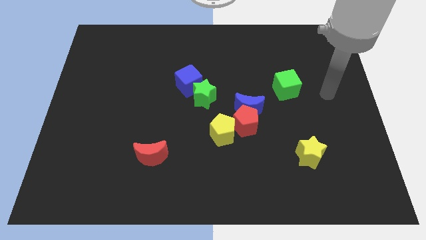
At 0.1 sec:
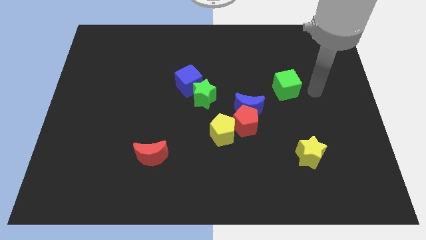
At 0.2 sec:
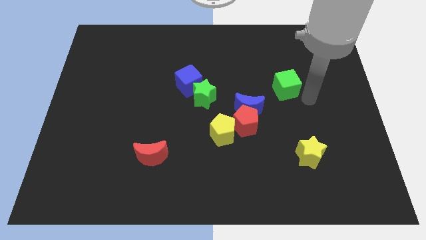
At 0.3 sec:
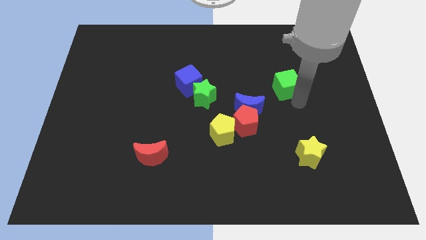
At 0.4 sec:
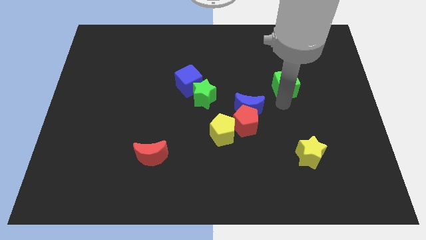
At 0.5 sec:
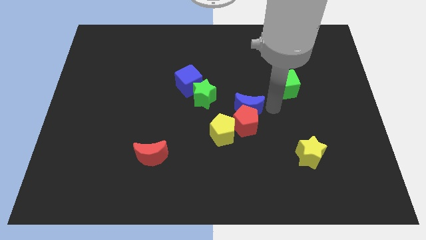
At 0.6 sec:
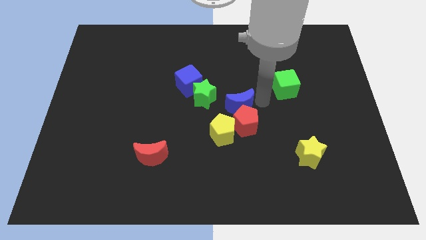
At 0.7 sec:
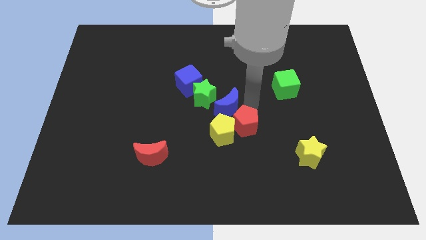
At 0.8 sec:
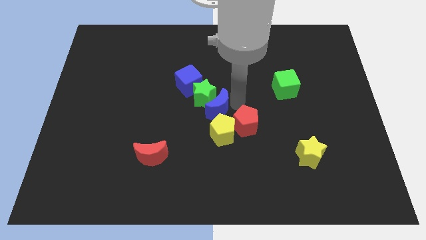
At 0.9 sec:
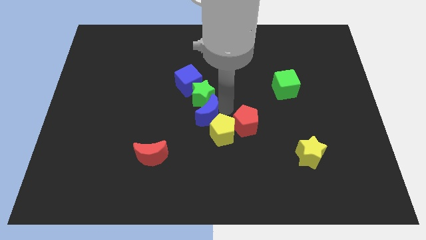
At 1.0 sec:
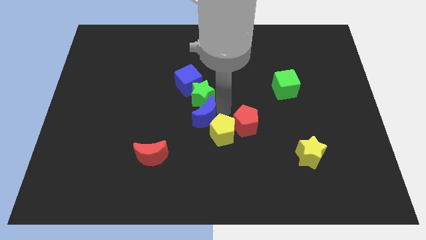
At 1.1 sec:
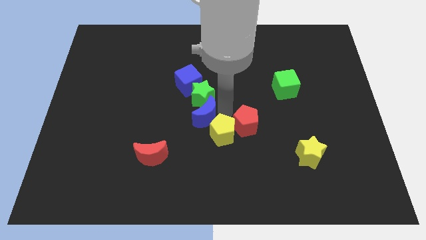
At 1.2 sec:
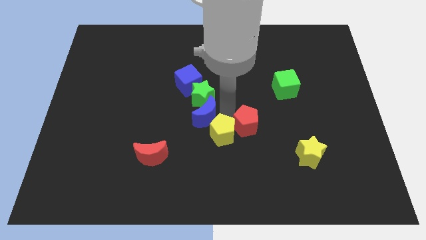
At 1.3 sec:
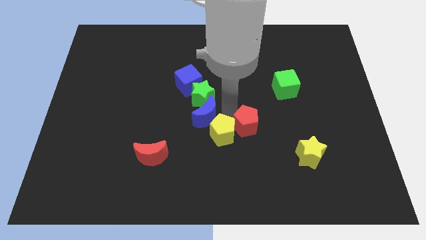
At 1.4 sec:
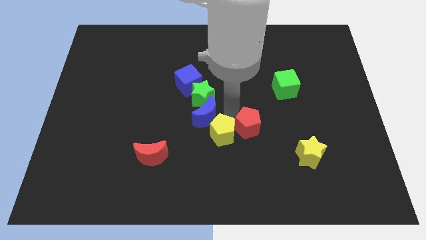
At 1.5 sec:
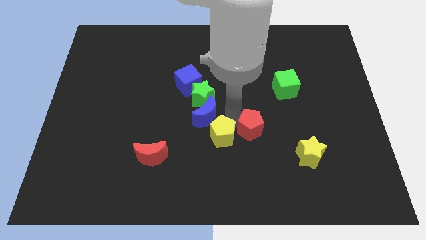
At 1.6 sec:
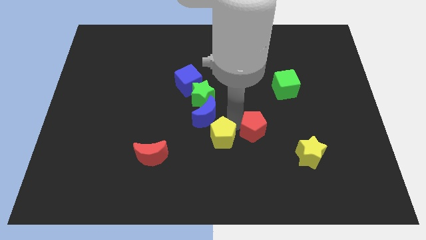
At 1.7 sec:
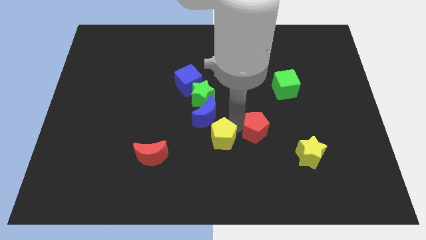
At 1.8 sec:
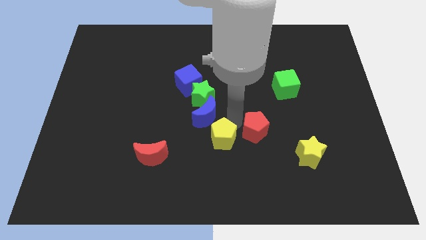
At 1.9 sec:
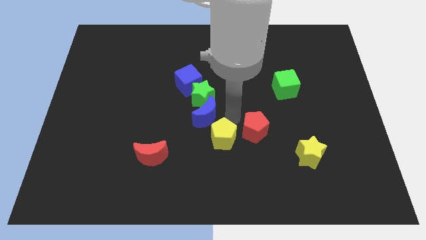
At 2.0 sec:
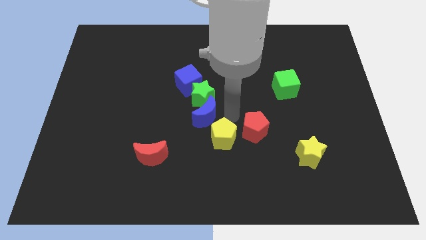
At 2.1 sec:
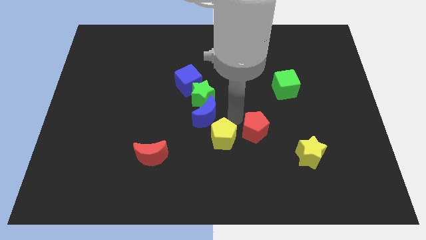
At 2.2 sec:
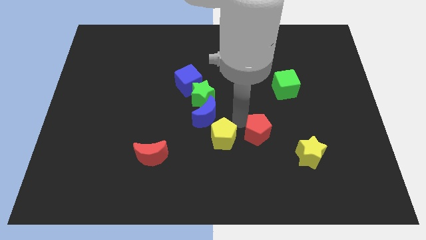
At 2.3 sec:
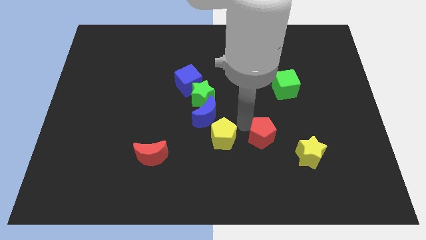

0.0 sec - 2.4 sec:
move the red pentagon away from the blue moon and yellow pentagon

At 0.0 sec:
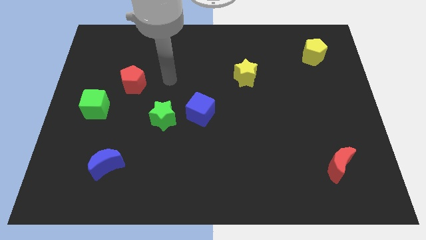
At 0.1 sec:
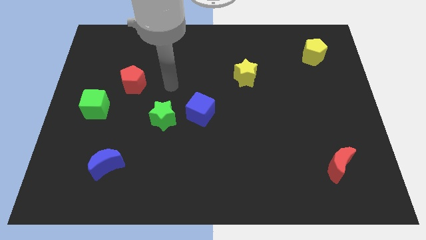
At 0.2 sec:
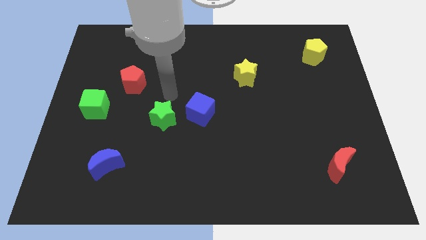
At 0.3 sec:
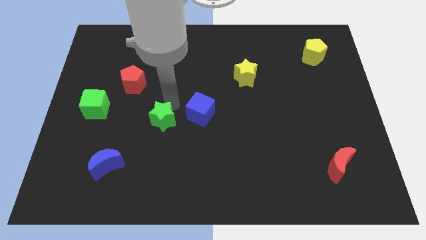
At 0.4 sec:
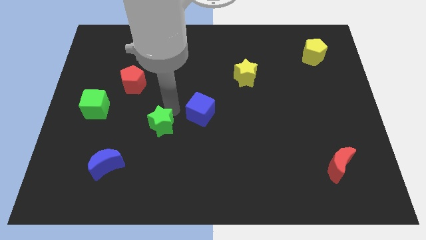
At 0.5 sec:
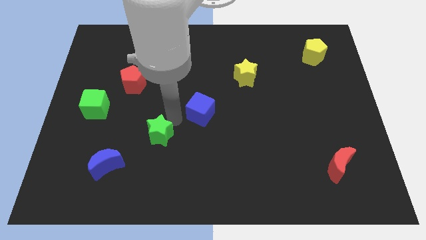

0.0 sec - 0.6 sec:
pull the blue cube apart from the green star

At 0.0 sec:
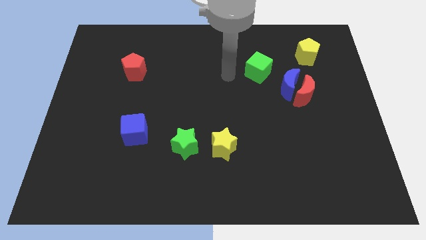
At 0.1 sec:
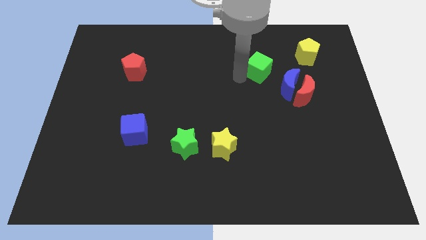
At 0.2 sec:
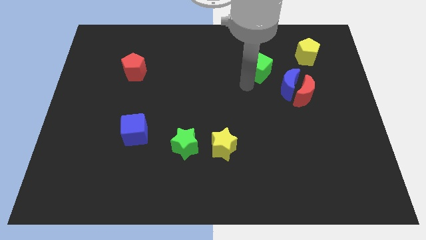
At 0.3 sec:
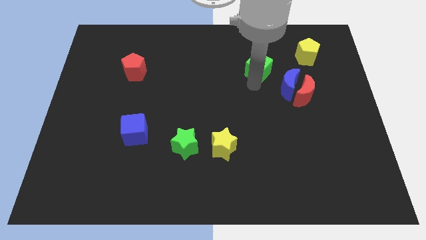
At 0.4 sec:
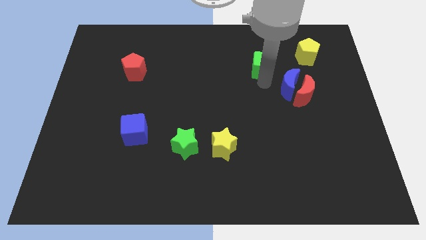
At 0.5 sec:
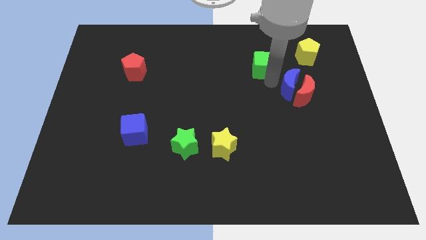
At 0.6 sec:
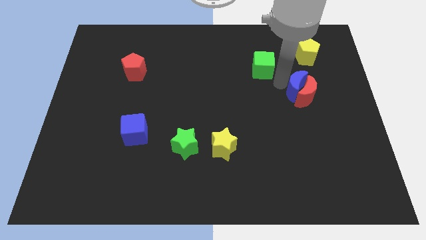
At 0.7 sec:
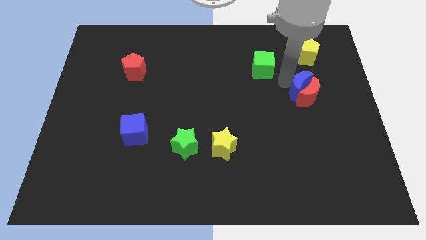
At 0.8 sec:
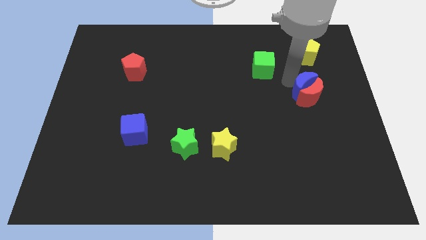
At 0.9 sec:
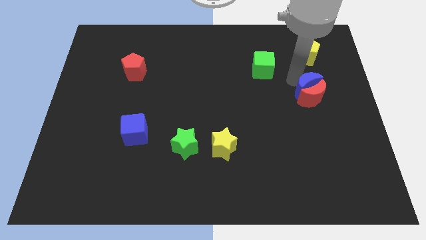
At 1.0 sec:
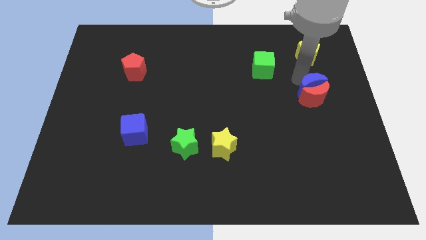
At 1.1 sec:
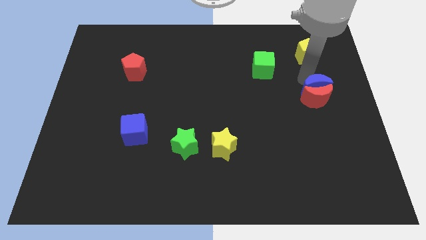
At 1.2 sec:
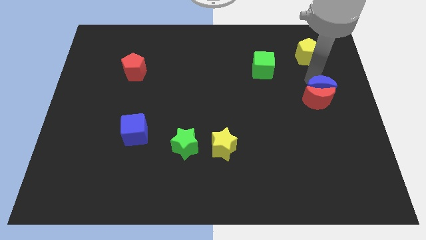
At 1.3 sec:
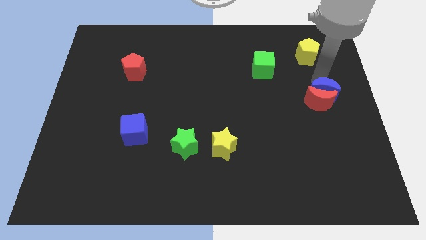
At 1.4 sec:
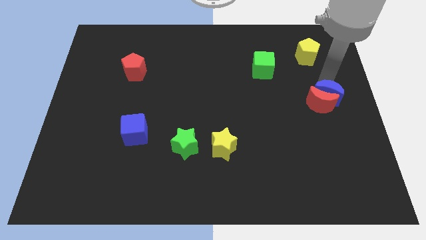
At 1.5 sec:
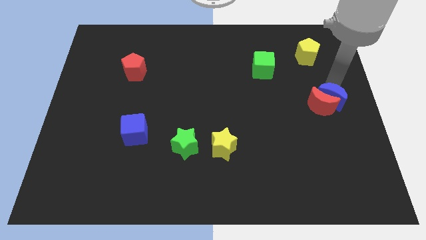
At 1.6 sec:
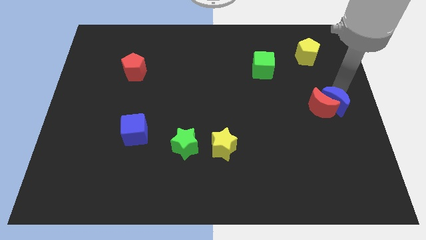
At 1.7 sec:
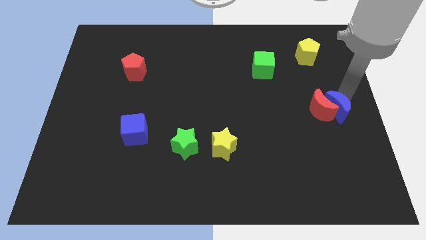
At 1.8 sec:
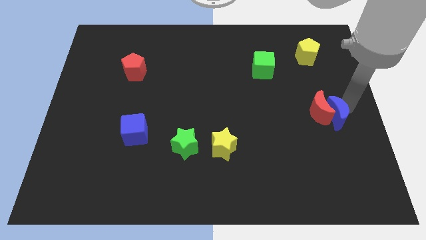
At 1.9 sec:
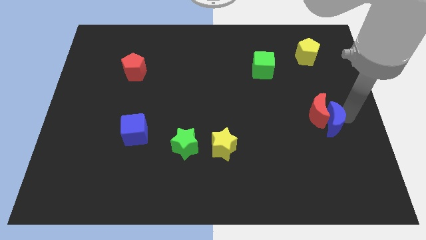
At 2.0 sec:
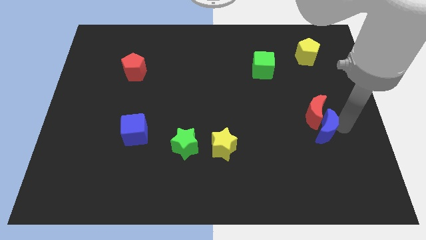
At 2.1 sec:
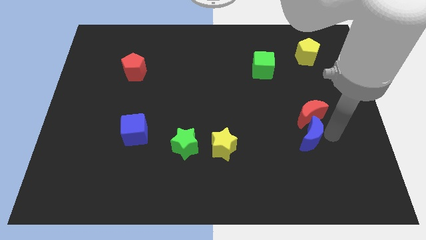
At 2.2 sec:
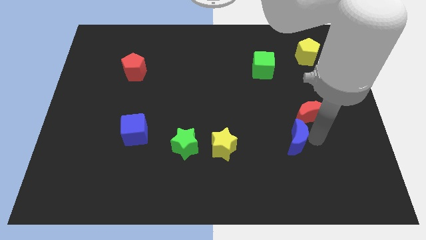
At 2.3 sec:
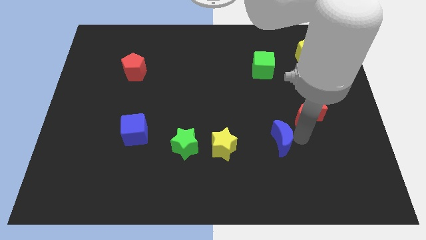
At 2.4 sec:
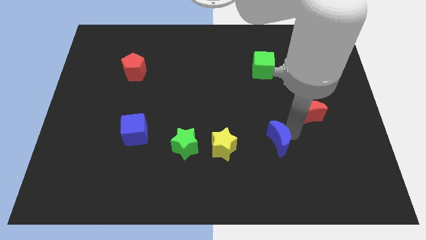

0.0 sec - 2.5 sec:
pull the red moon apart from the blue moon

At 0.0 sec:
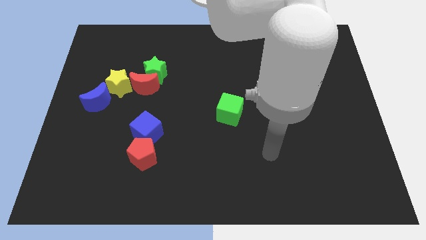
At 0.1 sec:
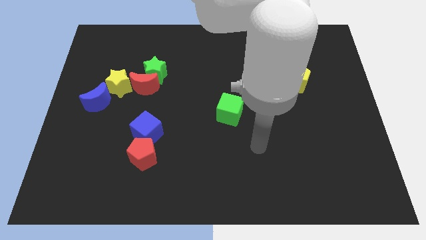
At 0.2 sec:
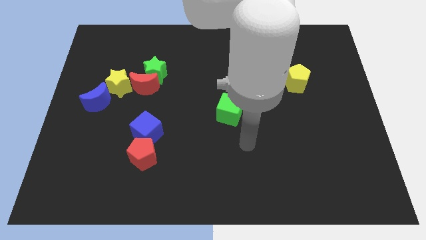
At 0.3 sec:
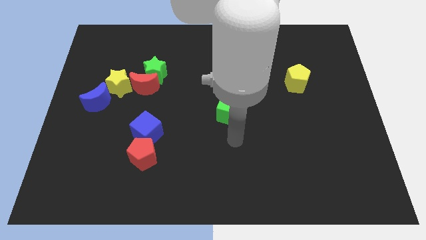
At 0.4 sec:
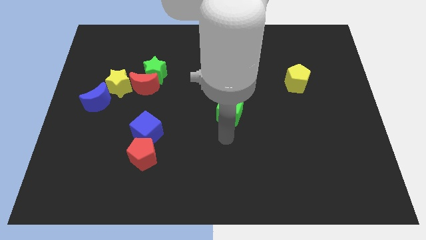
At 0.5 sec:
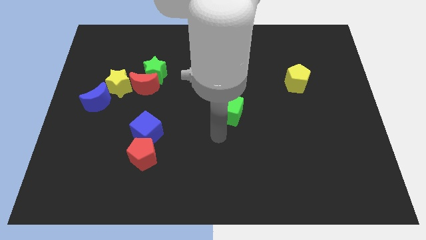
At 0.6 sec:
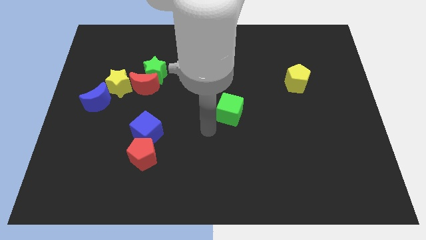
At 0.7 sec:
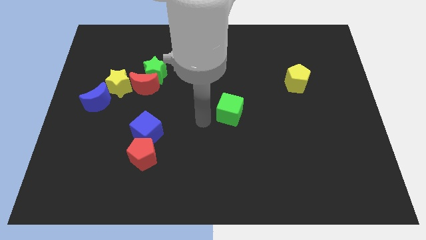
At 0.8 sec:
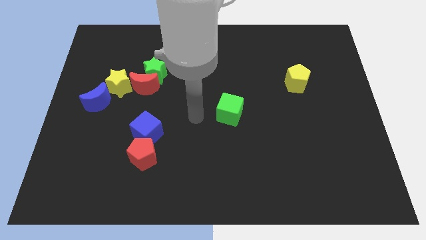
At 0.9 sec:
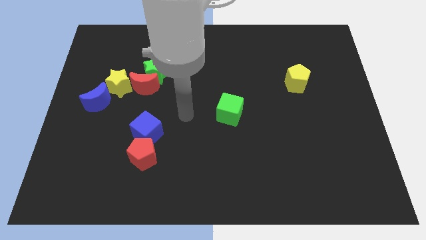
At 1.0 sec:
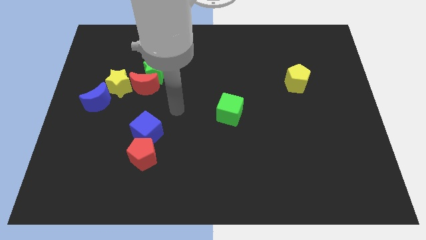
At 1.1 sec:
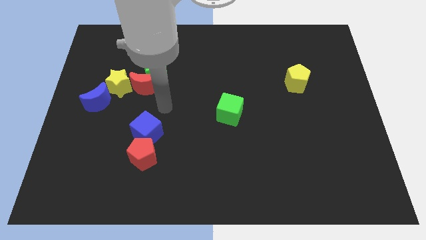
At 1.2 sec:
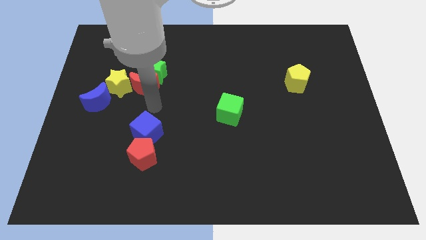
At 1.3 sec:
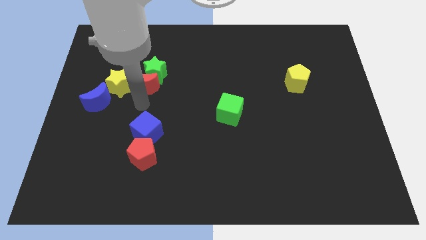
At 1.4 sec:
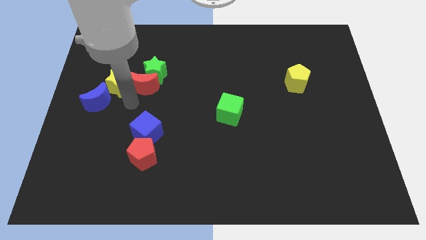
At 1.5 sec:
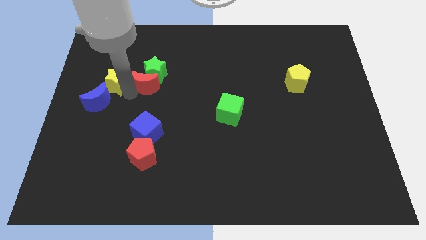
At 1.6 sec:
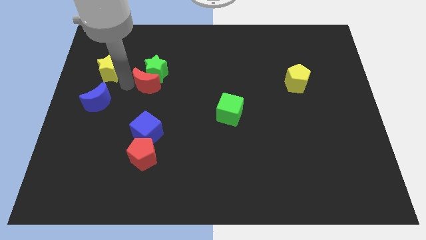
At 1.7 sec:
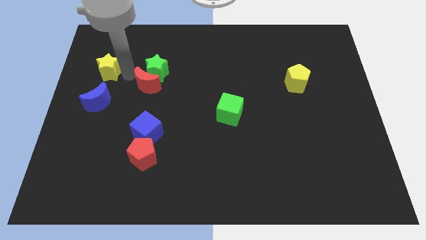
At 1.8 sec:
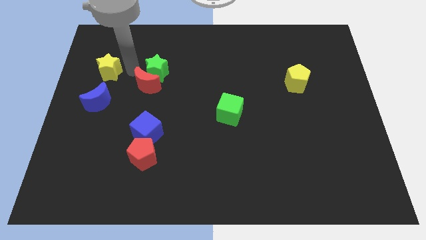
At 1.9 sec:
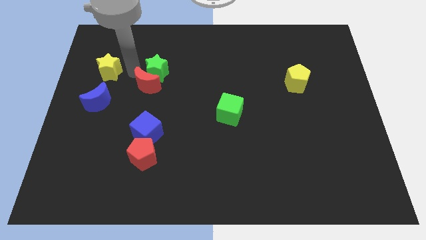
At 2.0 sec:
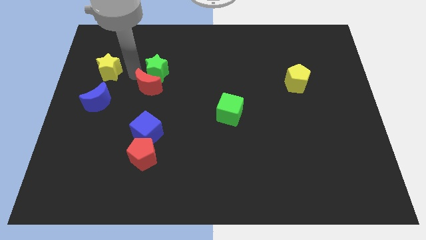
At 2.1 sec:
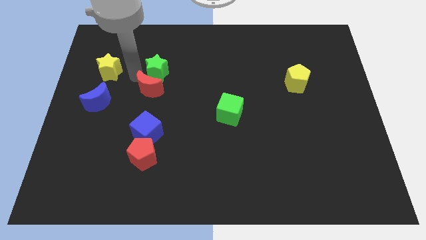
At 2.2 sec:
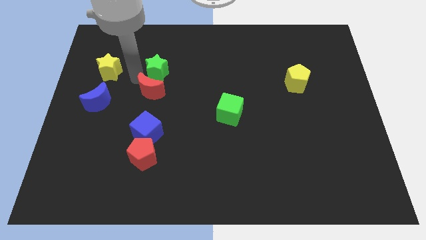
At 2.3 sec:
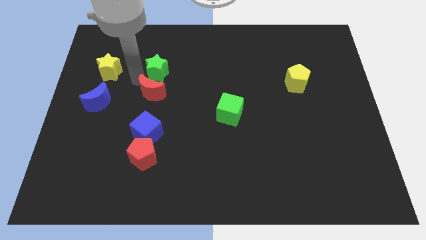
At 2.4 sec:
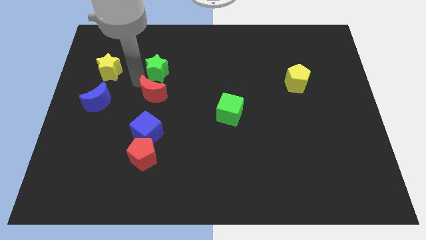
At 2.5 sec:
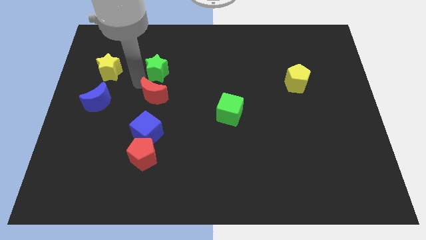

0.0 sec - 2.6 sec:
move the red moon away from the green star and yellow star

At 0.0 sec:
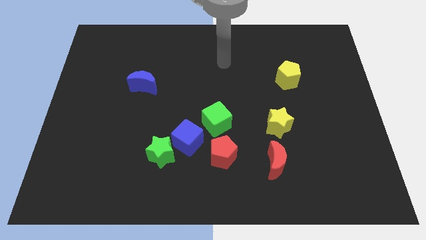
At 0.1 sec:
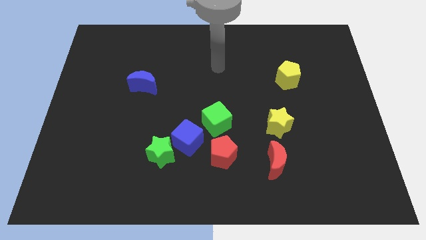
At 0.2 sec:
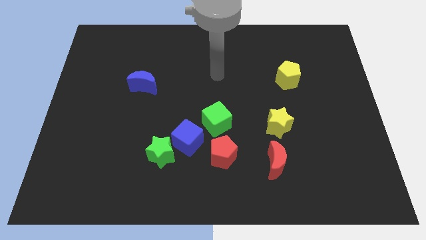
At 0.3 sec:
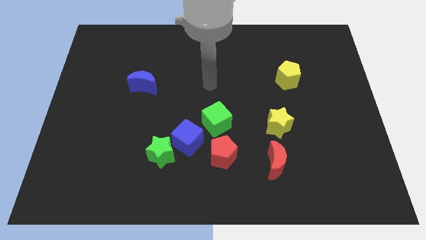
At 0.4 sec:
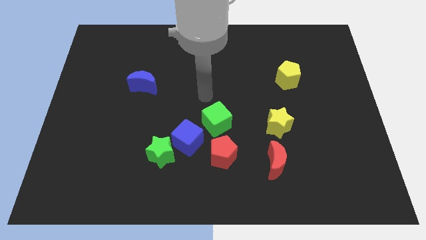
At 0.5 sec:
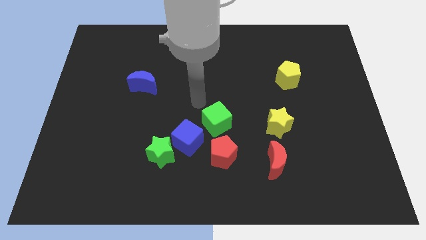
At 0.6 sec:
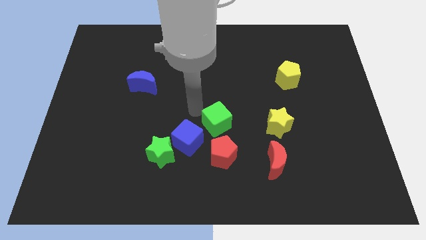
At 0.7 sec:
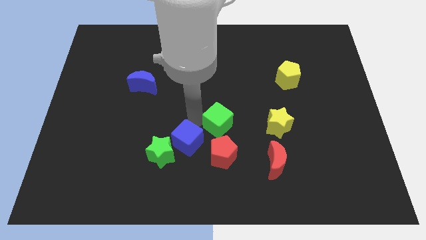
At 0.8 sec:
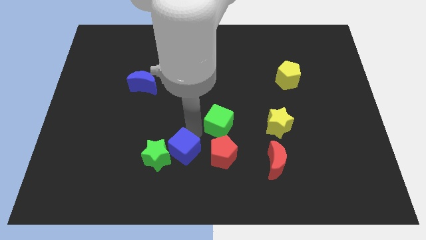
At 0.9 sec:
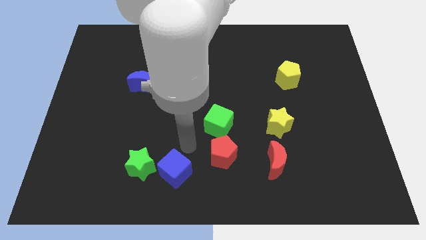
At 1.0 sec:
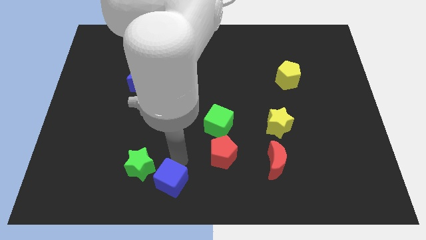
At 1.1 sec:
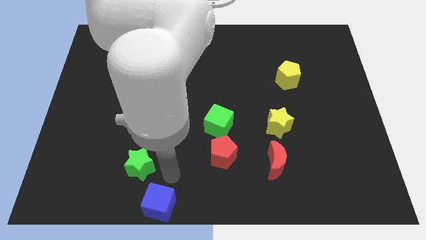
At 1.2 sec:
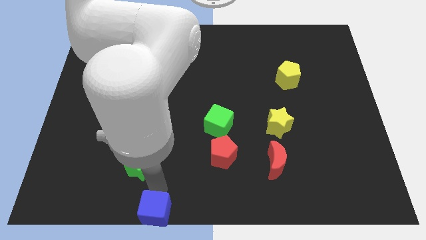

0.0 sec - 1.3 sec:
separate the green star from the blue cube
